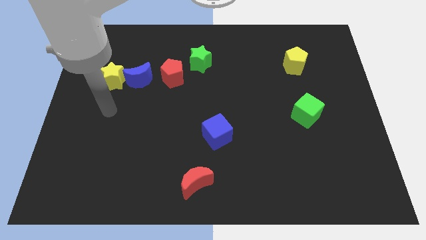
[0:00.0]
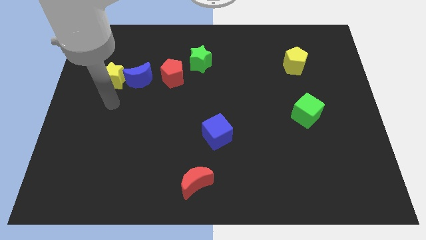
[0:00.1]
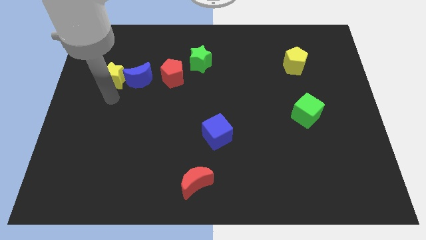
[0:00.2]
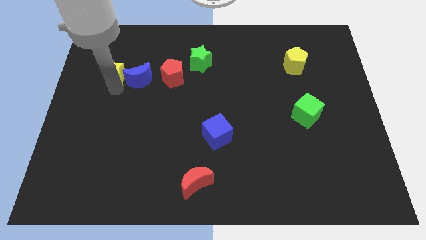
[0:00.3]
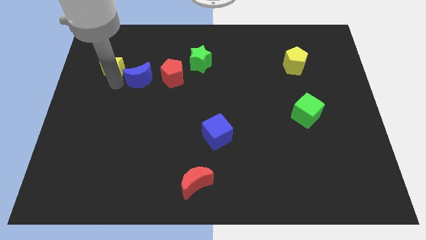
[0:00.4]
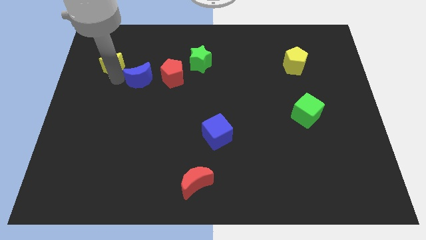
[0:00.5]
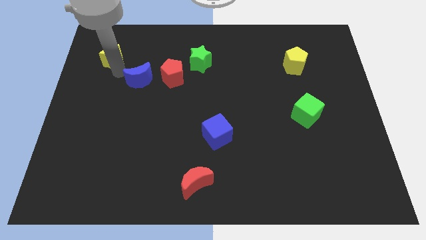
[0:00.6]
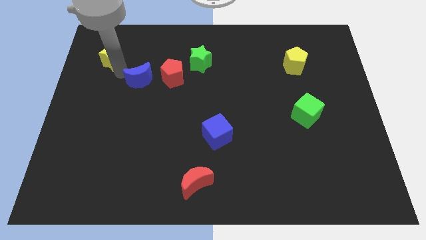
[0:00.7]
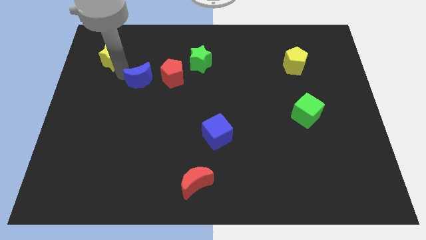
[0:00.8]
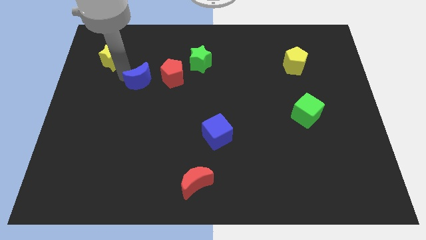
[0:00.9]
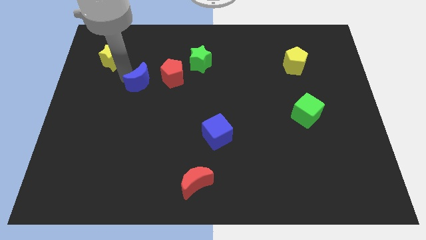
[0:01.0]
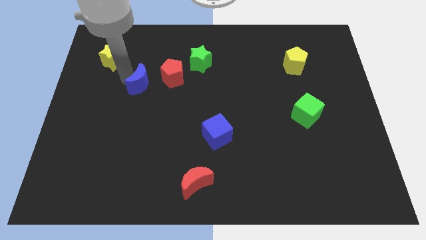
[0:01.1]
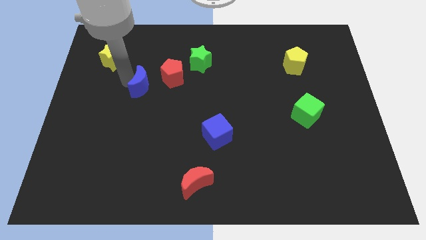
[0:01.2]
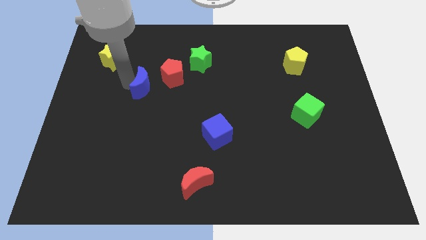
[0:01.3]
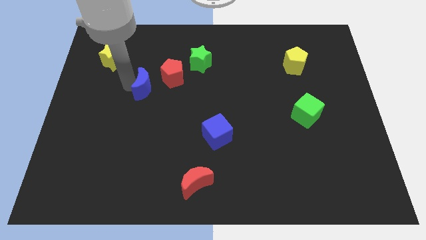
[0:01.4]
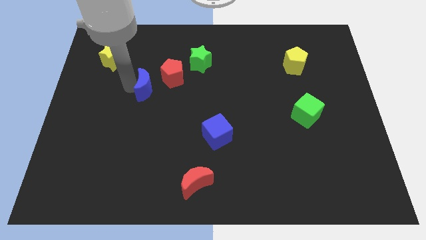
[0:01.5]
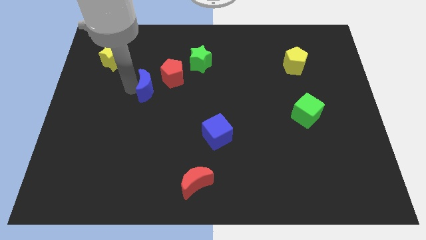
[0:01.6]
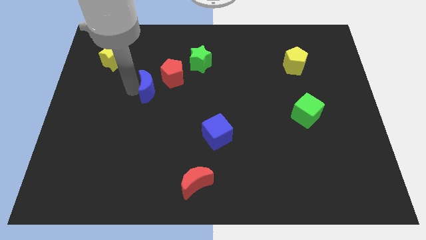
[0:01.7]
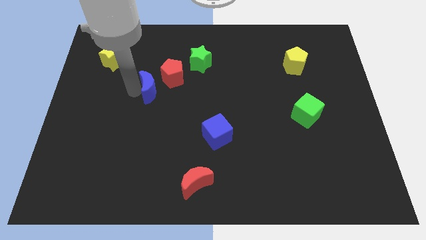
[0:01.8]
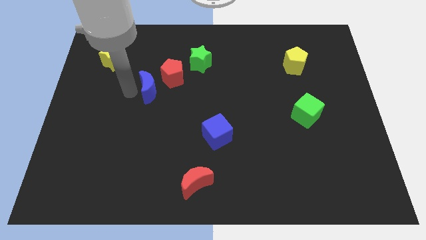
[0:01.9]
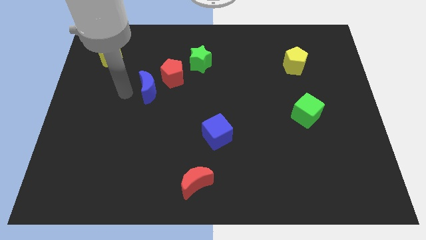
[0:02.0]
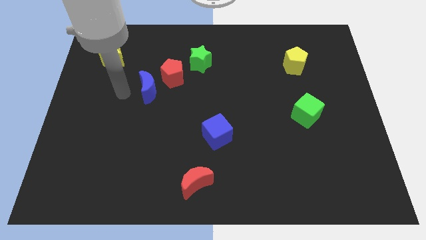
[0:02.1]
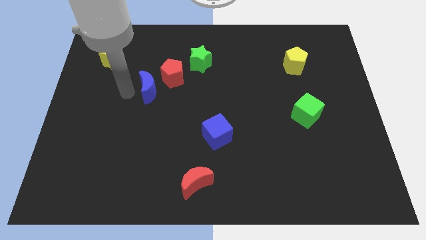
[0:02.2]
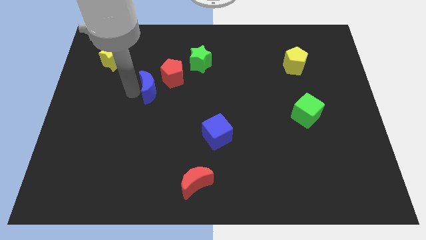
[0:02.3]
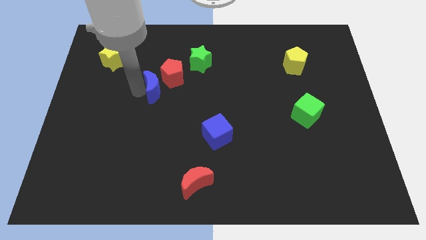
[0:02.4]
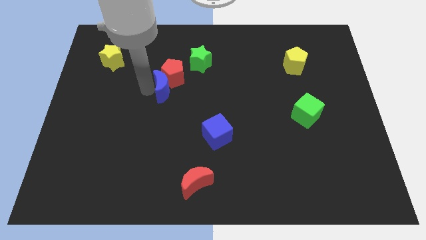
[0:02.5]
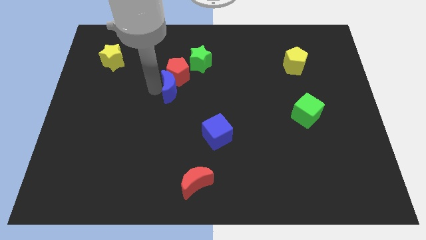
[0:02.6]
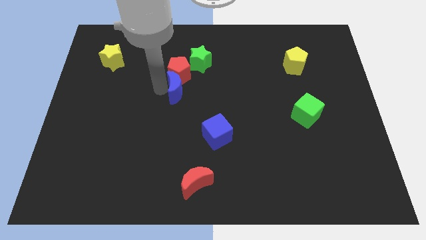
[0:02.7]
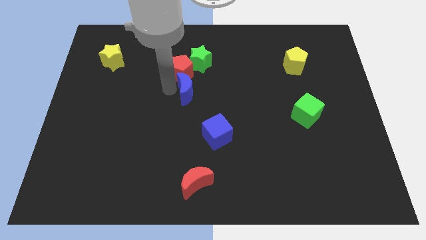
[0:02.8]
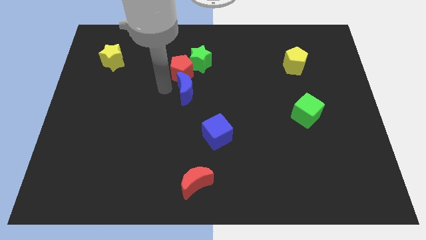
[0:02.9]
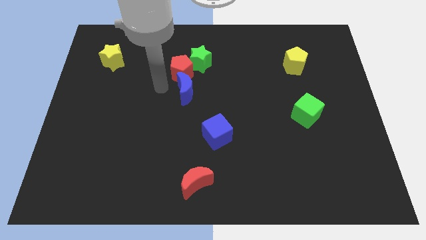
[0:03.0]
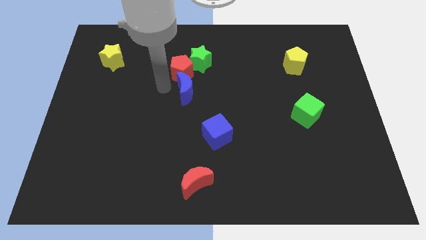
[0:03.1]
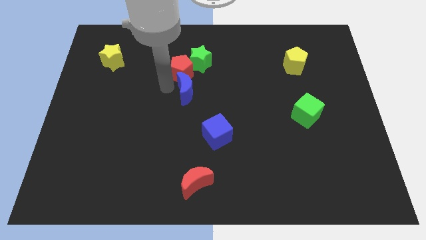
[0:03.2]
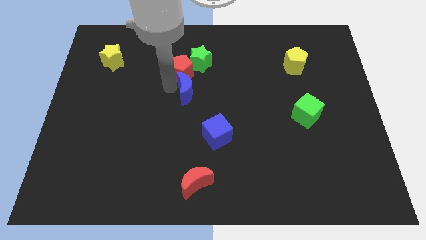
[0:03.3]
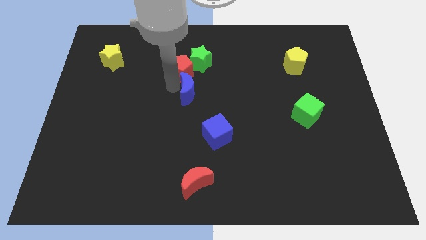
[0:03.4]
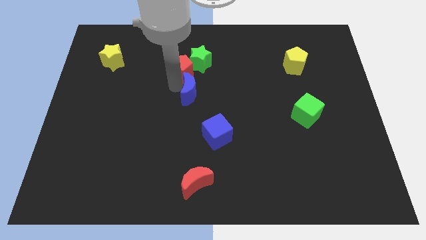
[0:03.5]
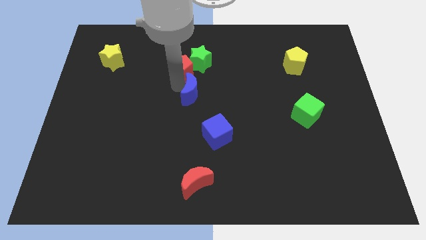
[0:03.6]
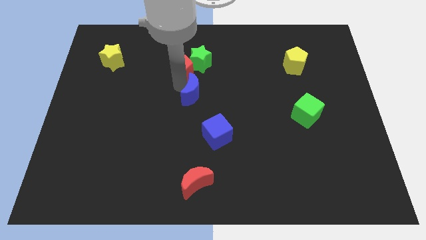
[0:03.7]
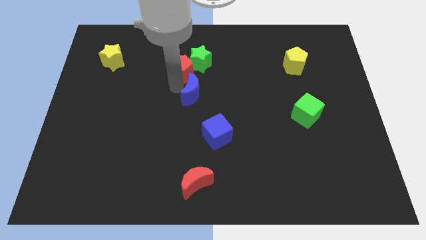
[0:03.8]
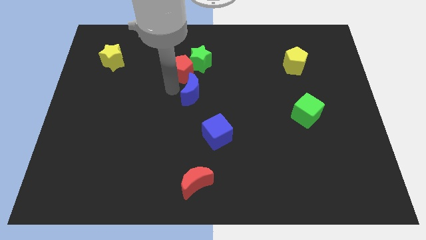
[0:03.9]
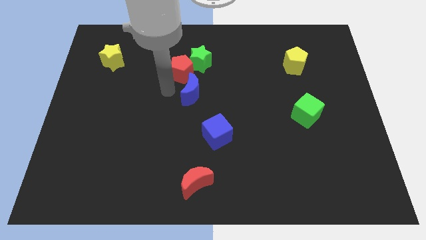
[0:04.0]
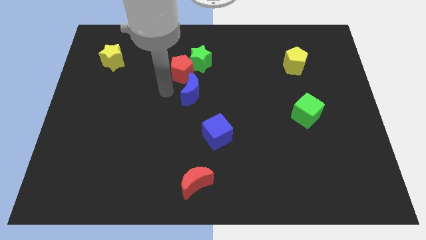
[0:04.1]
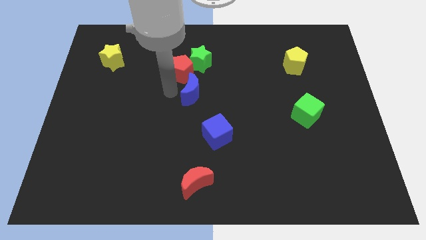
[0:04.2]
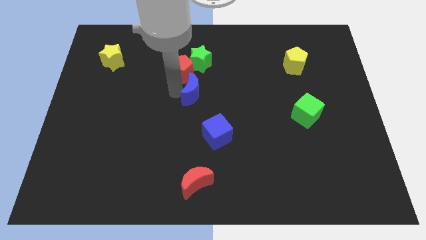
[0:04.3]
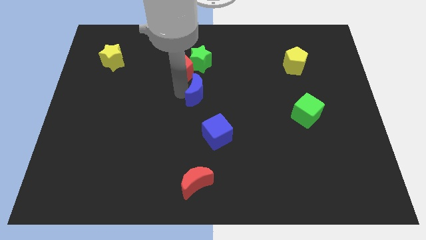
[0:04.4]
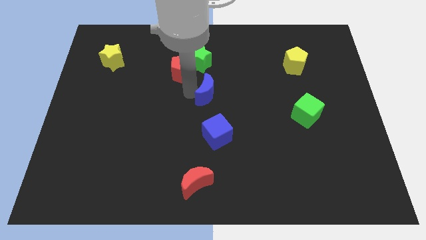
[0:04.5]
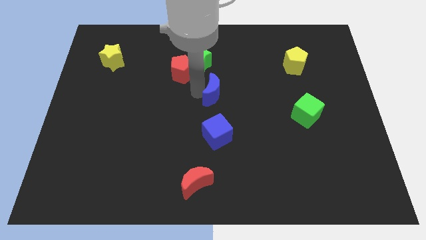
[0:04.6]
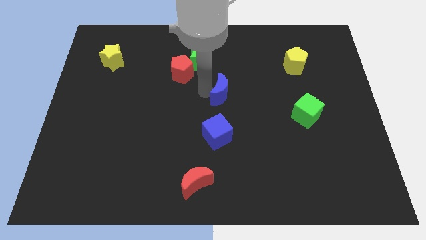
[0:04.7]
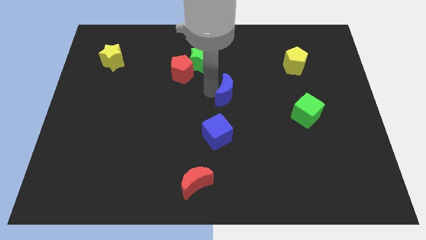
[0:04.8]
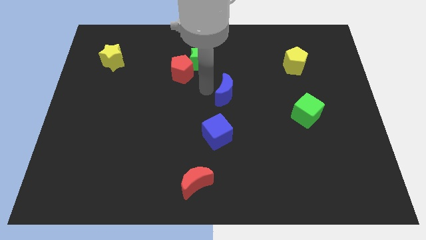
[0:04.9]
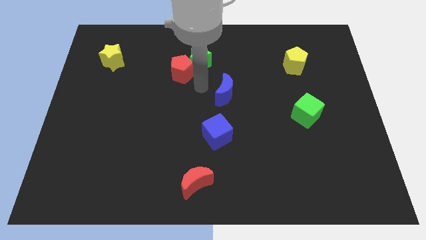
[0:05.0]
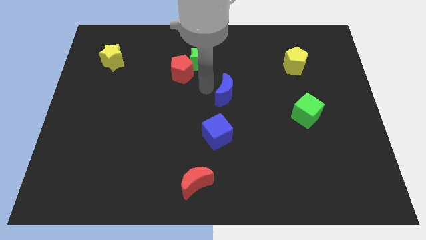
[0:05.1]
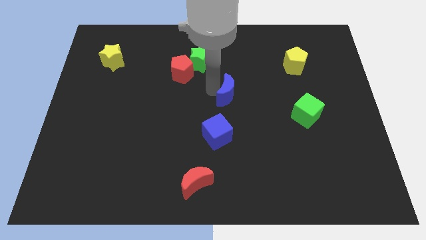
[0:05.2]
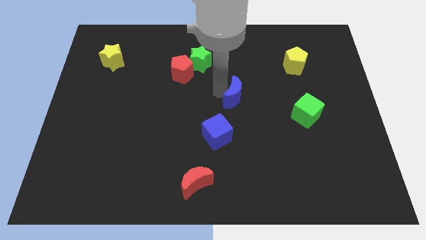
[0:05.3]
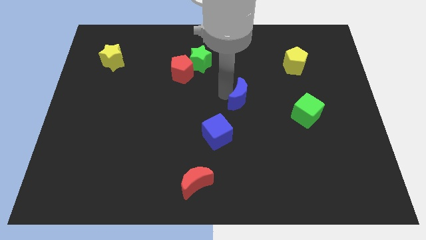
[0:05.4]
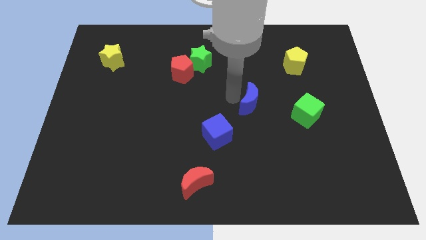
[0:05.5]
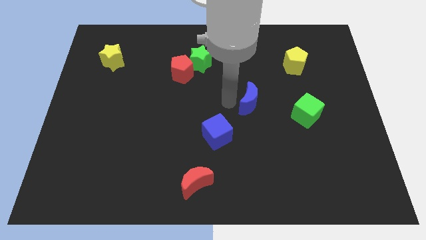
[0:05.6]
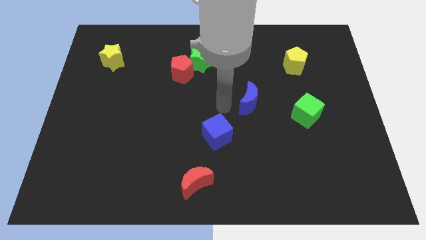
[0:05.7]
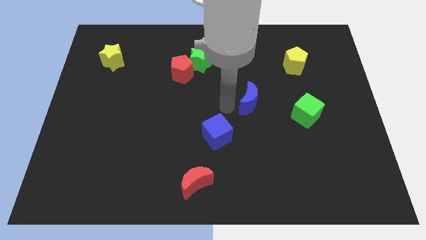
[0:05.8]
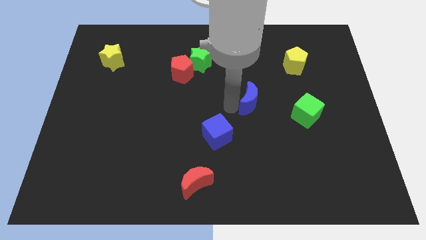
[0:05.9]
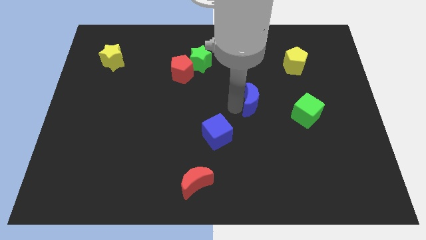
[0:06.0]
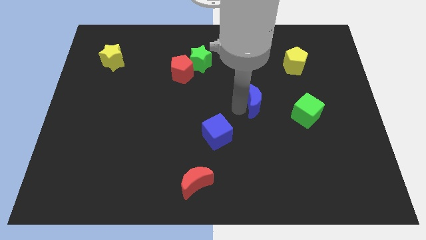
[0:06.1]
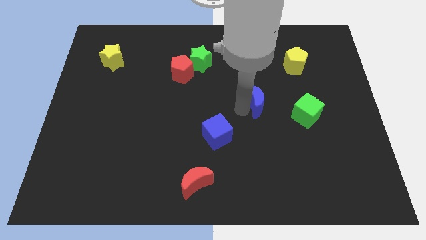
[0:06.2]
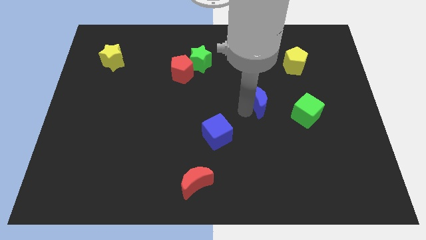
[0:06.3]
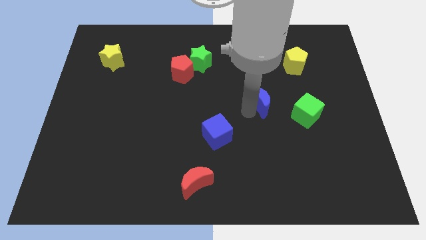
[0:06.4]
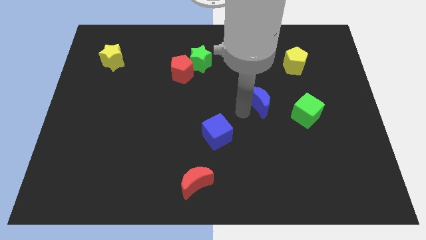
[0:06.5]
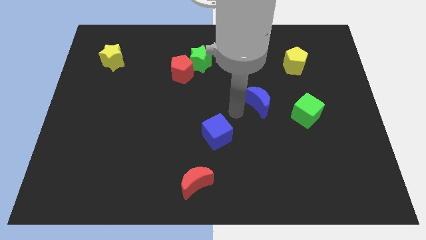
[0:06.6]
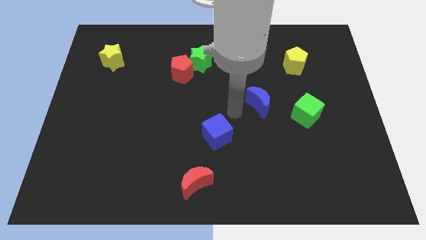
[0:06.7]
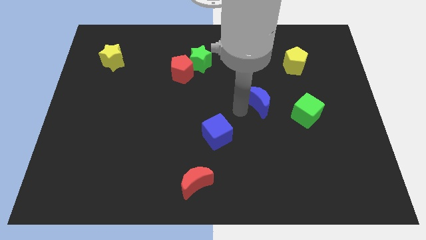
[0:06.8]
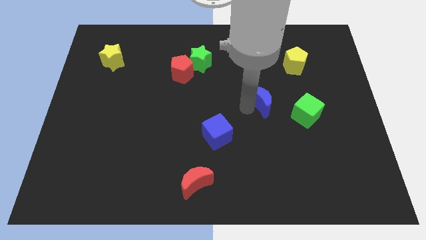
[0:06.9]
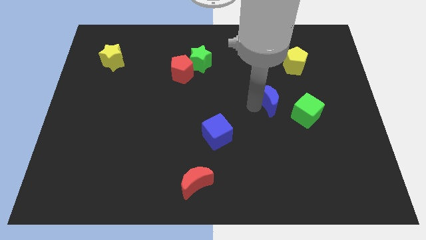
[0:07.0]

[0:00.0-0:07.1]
push the blue moon diagonally up and to the left of the green cube
